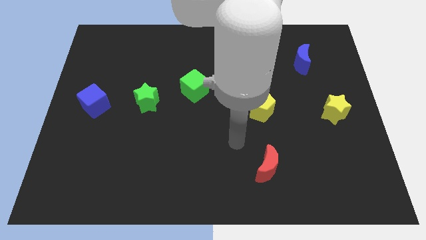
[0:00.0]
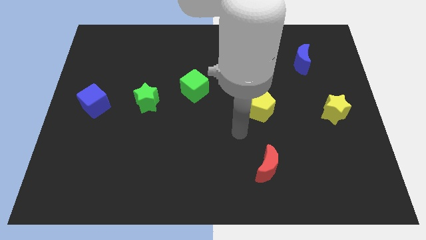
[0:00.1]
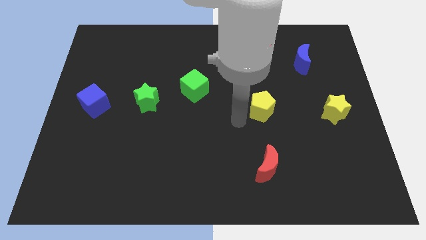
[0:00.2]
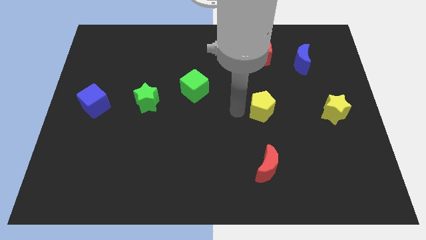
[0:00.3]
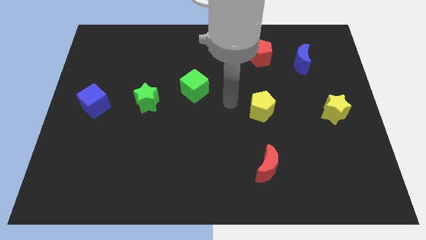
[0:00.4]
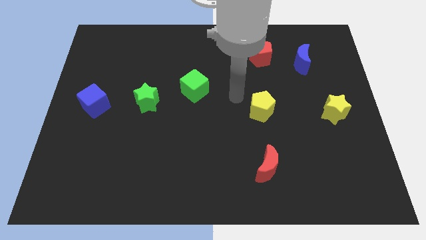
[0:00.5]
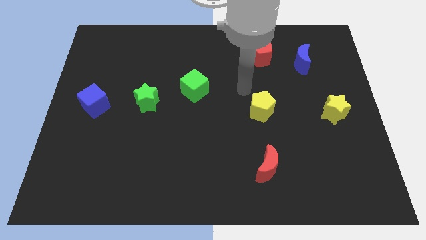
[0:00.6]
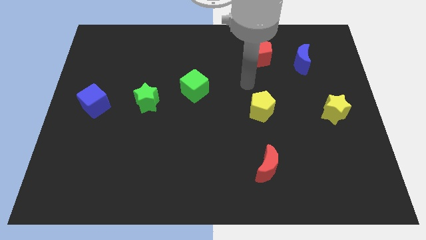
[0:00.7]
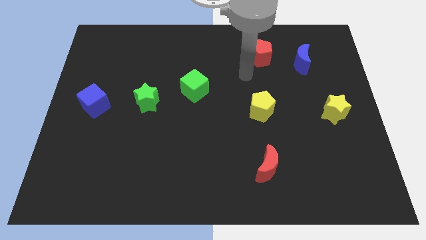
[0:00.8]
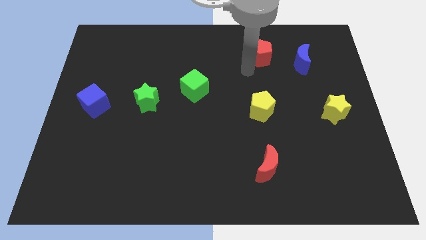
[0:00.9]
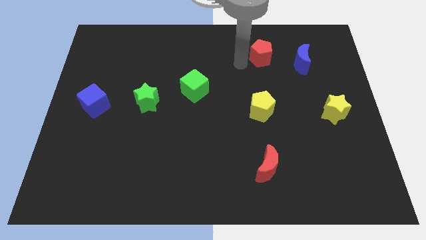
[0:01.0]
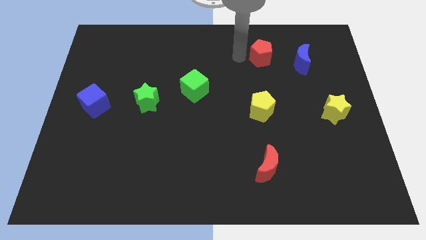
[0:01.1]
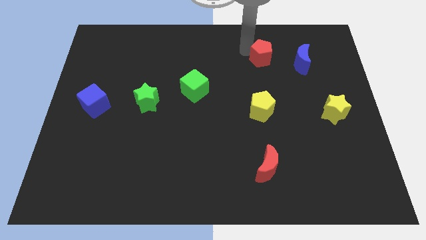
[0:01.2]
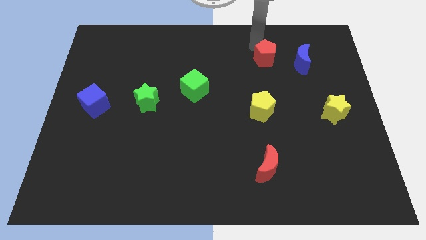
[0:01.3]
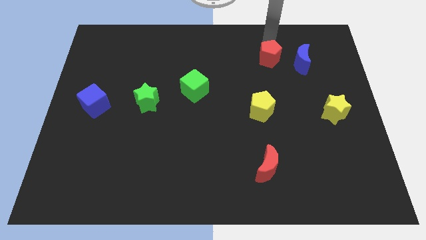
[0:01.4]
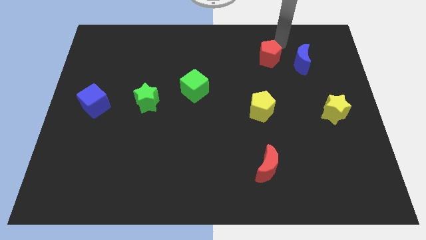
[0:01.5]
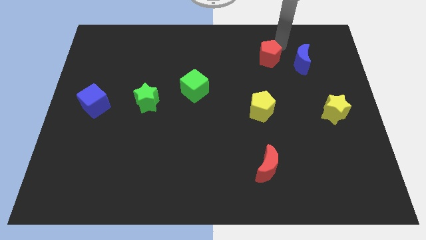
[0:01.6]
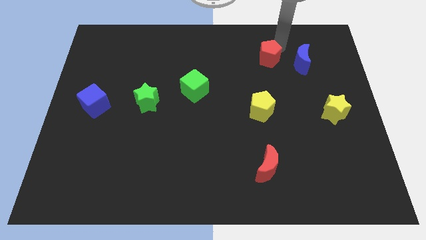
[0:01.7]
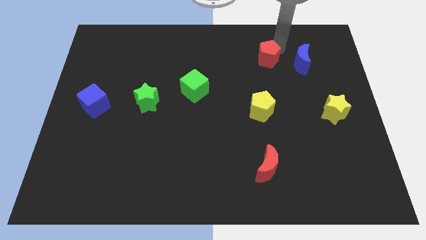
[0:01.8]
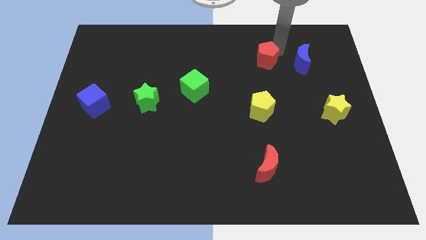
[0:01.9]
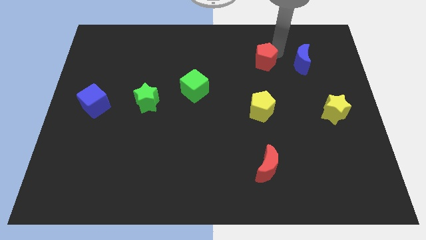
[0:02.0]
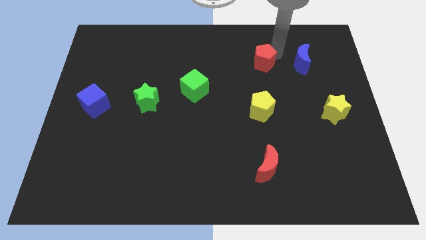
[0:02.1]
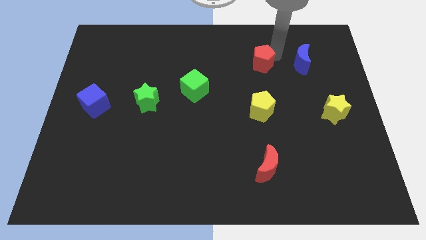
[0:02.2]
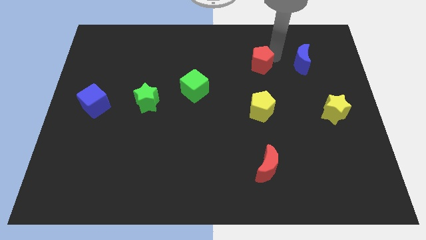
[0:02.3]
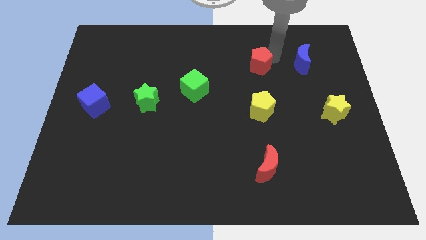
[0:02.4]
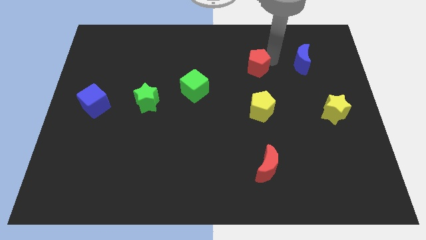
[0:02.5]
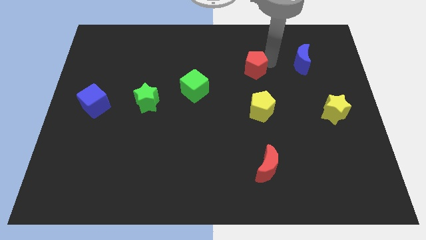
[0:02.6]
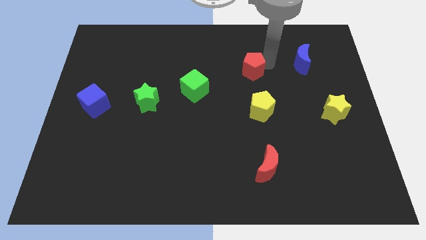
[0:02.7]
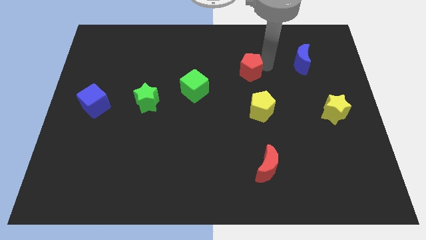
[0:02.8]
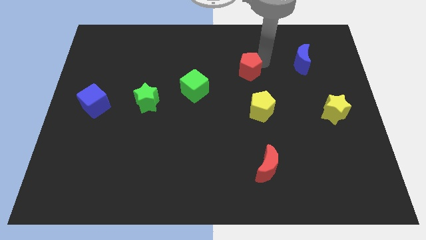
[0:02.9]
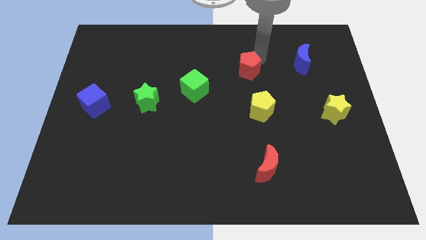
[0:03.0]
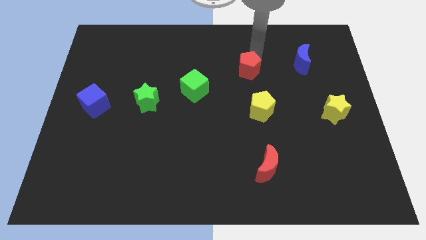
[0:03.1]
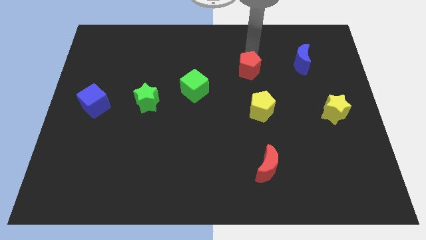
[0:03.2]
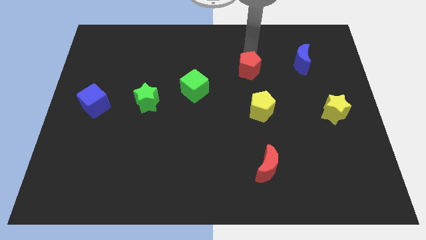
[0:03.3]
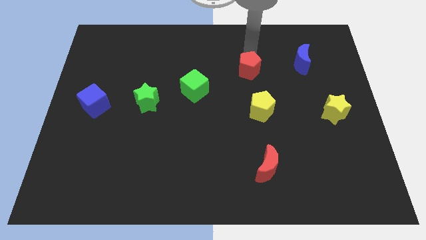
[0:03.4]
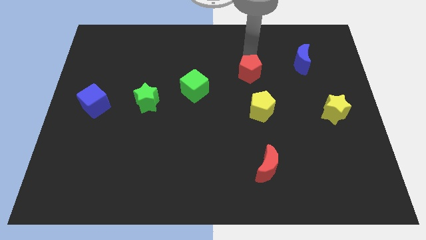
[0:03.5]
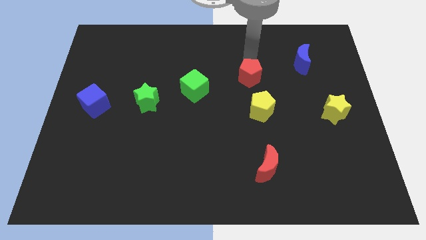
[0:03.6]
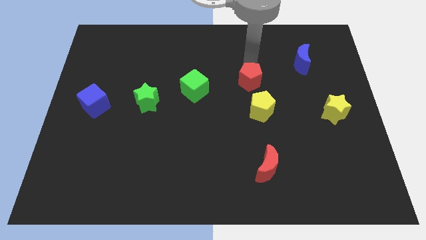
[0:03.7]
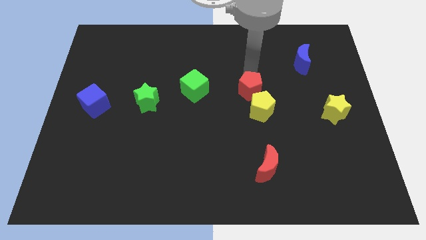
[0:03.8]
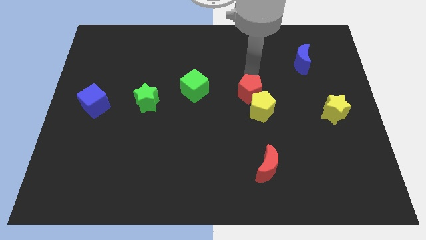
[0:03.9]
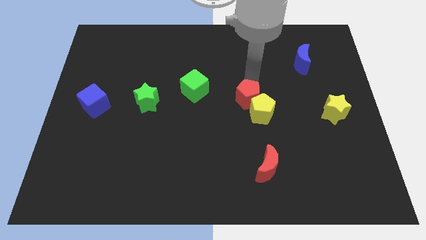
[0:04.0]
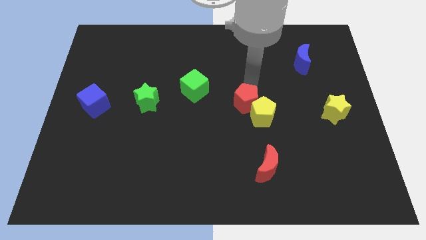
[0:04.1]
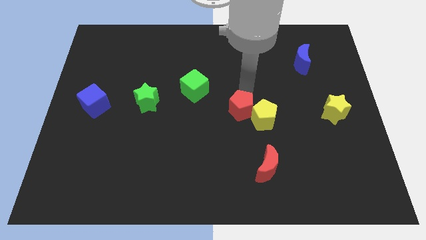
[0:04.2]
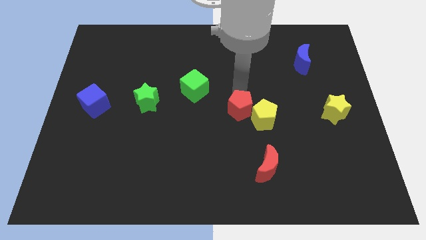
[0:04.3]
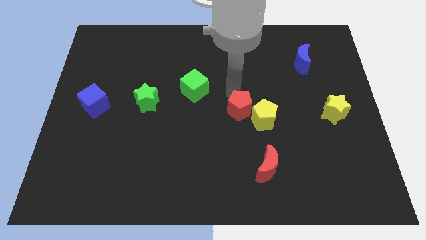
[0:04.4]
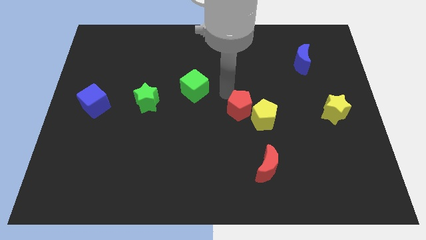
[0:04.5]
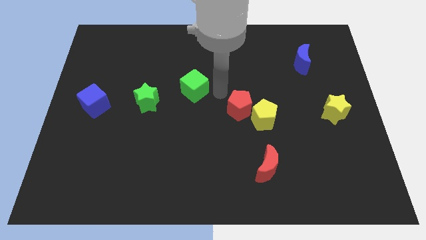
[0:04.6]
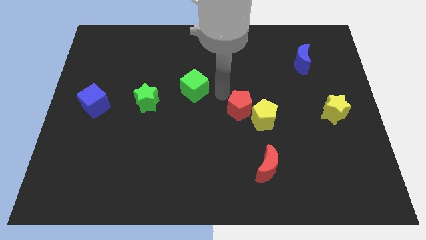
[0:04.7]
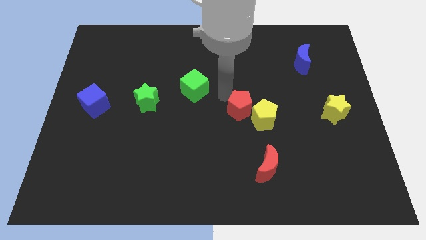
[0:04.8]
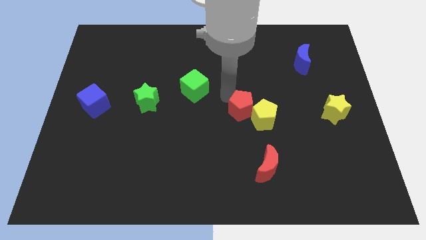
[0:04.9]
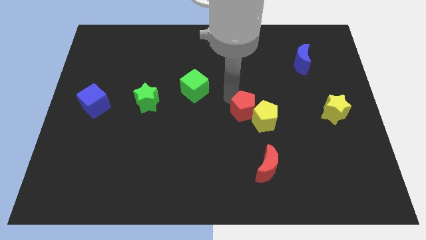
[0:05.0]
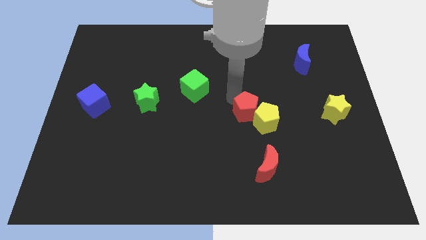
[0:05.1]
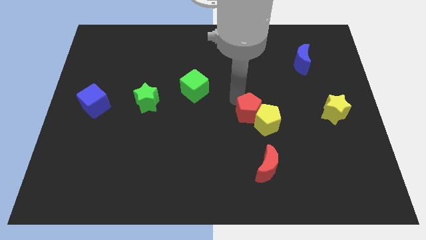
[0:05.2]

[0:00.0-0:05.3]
put the red pentagon to the top side of the red moon

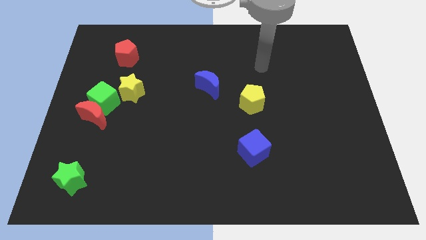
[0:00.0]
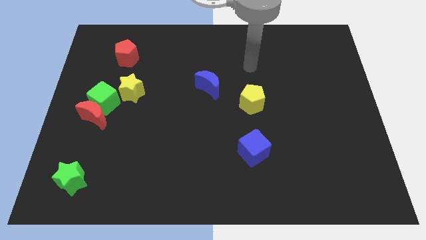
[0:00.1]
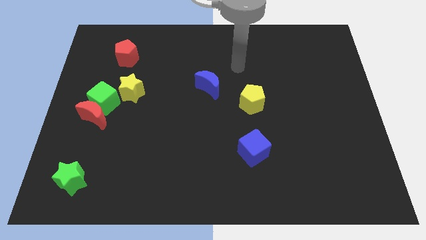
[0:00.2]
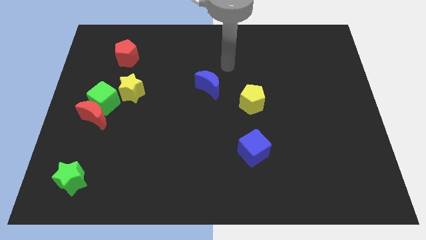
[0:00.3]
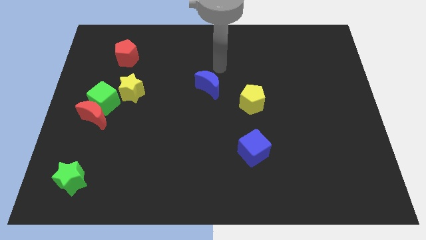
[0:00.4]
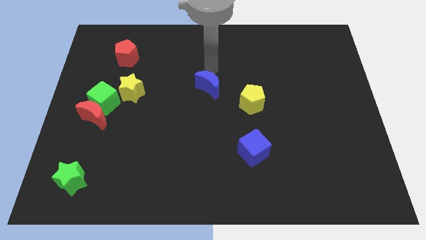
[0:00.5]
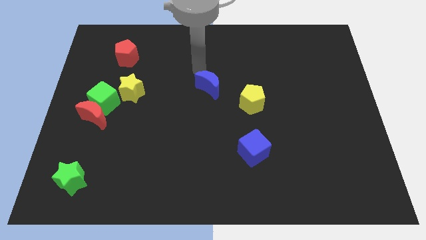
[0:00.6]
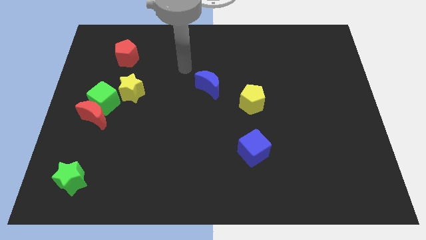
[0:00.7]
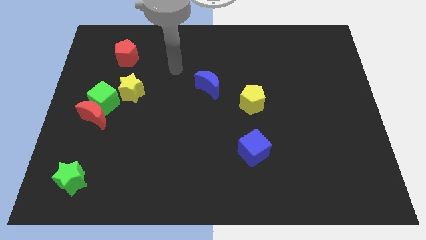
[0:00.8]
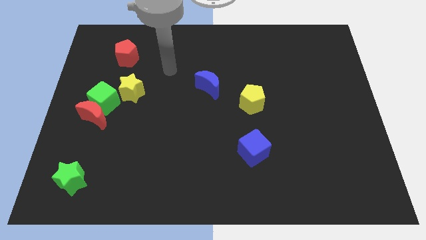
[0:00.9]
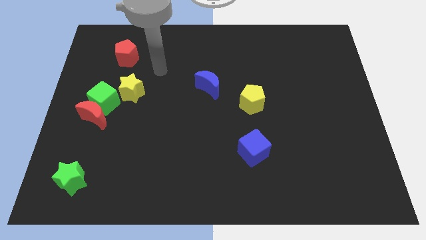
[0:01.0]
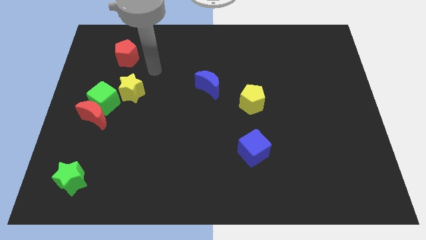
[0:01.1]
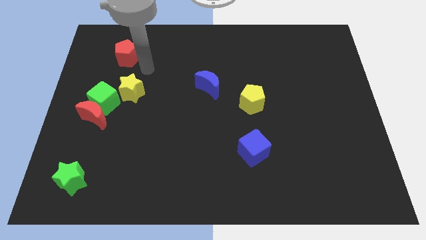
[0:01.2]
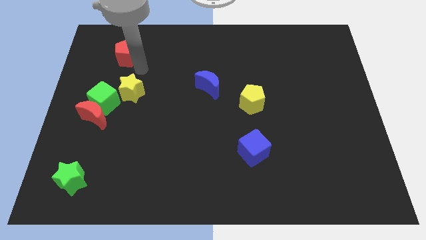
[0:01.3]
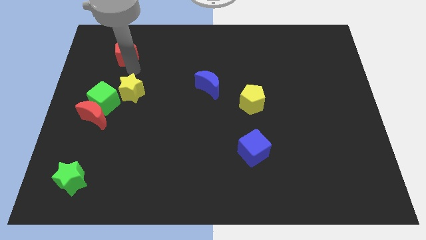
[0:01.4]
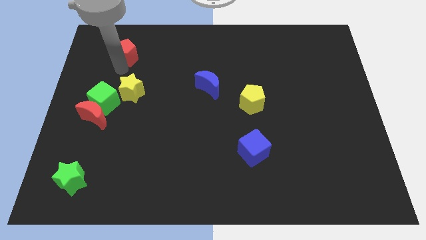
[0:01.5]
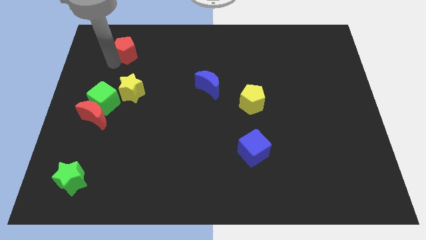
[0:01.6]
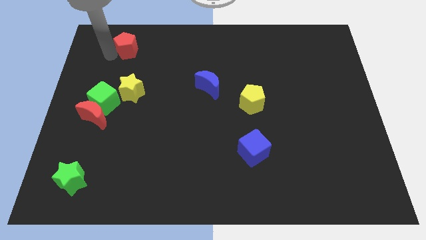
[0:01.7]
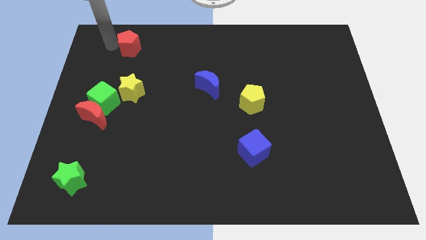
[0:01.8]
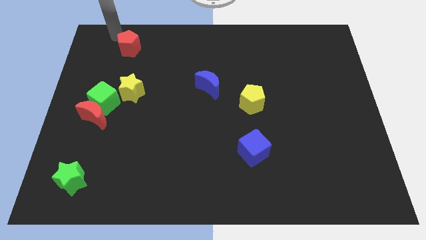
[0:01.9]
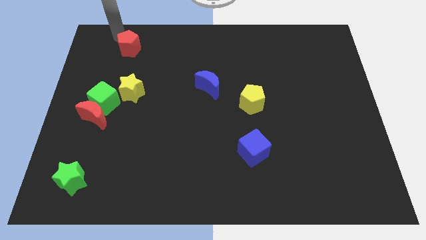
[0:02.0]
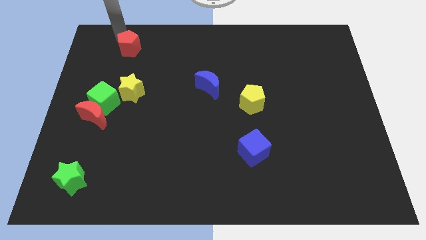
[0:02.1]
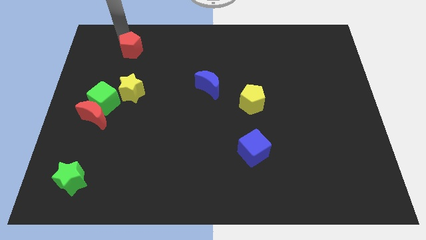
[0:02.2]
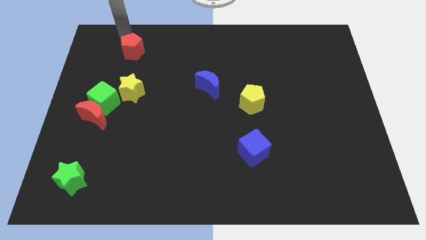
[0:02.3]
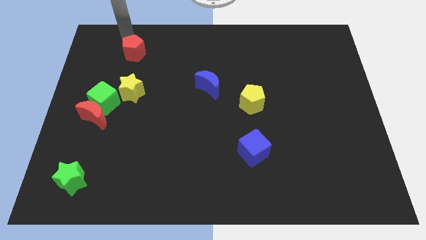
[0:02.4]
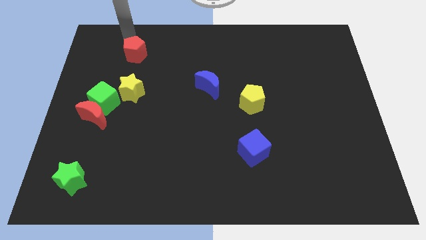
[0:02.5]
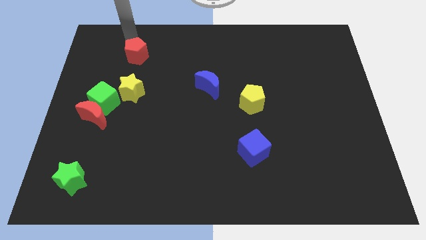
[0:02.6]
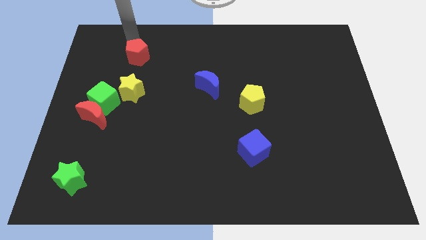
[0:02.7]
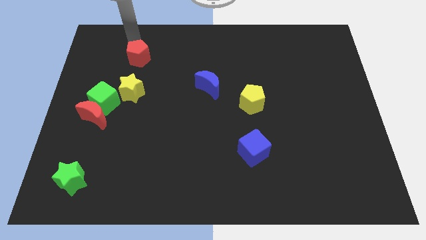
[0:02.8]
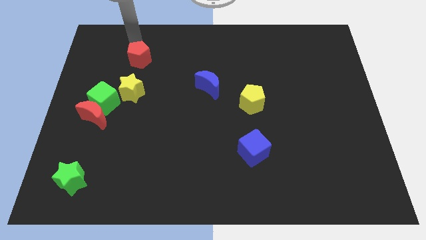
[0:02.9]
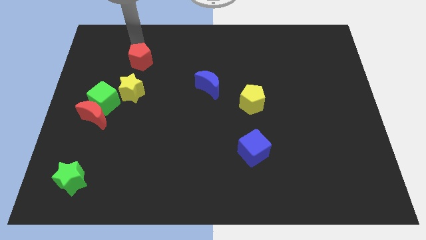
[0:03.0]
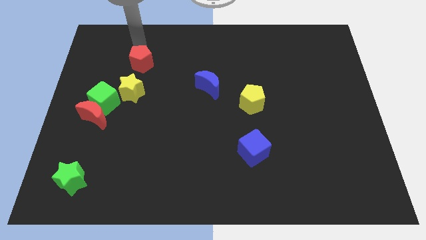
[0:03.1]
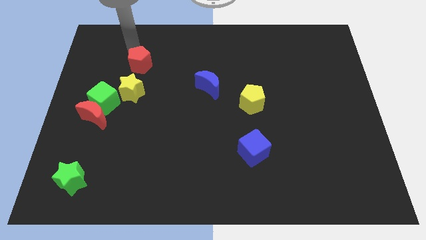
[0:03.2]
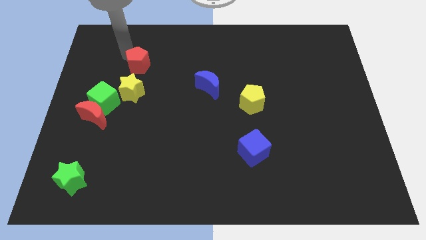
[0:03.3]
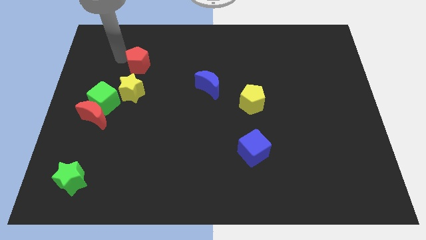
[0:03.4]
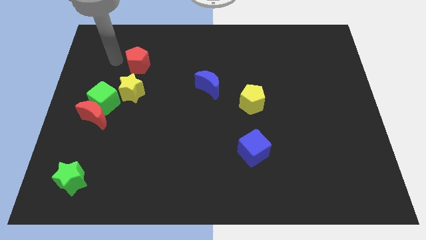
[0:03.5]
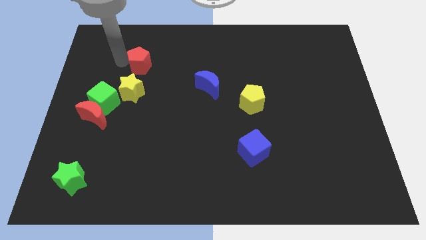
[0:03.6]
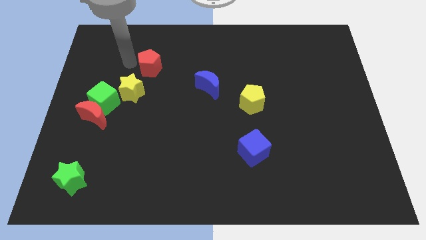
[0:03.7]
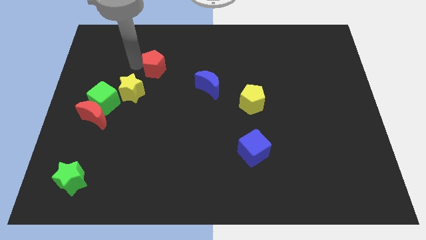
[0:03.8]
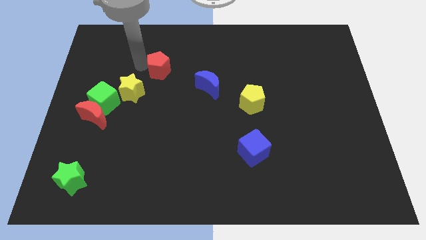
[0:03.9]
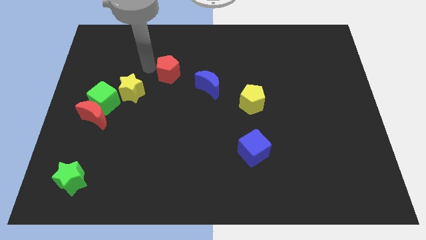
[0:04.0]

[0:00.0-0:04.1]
push the red pentagon to the top left of the blue moon
